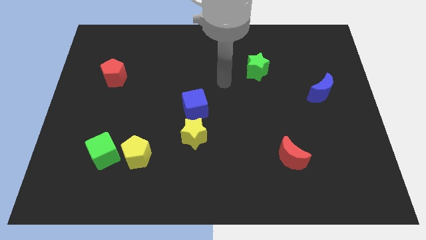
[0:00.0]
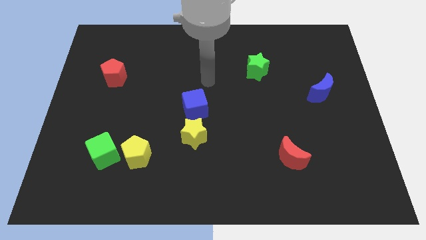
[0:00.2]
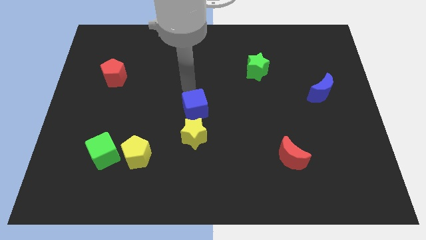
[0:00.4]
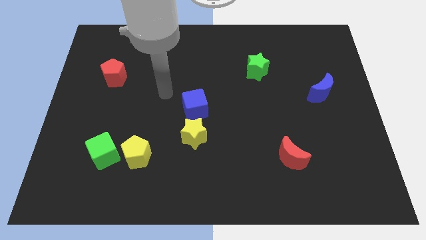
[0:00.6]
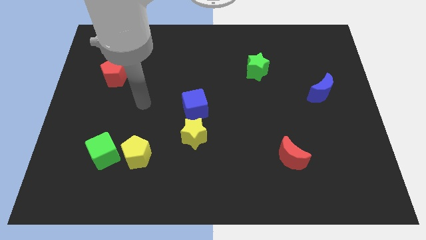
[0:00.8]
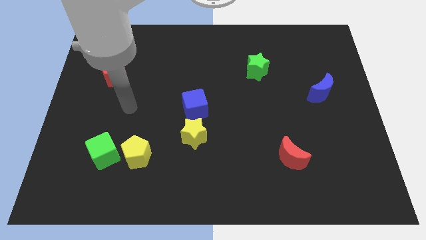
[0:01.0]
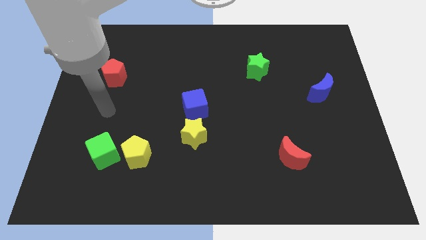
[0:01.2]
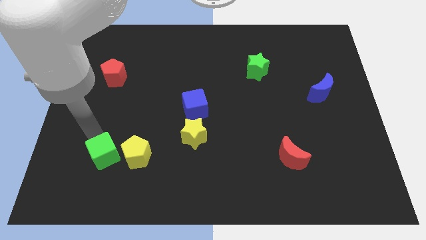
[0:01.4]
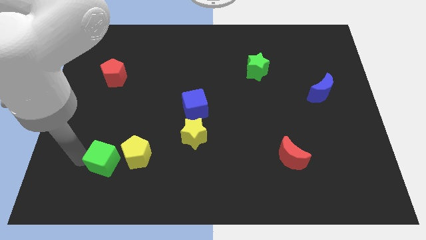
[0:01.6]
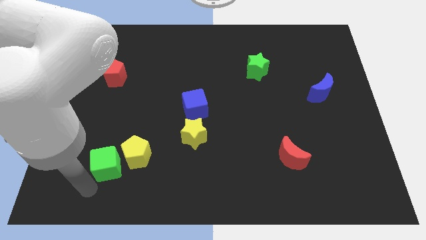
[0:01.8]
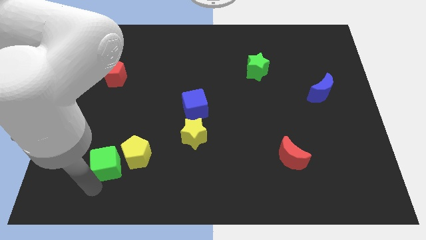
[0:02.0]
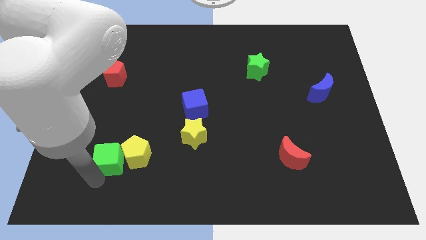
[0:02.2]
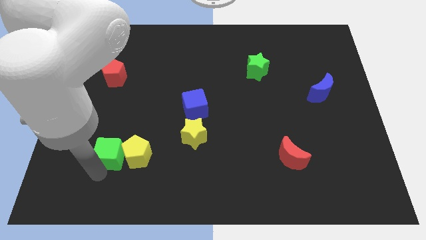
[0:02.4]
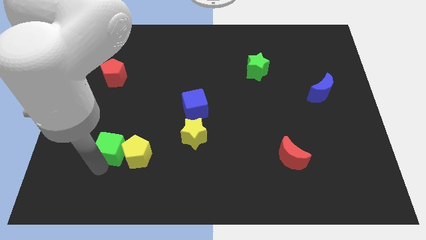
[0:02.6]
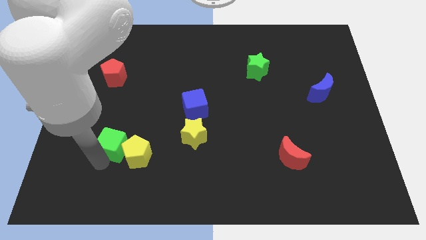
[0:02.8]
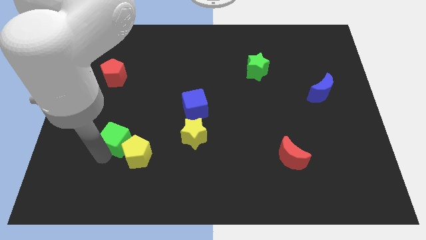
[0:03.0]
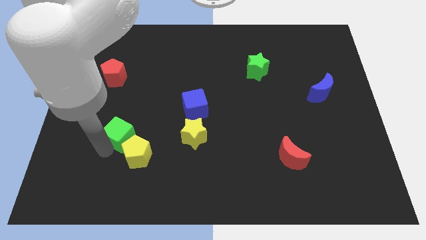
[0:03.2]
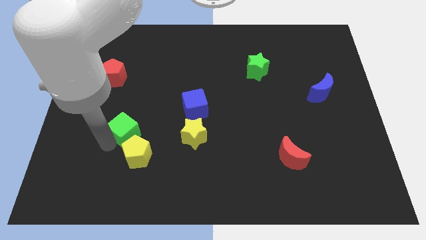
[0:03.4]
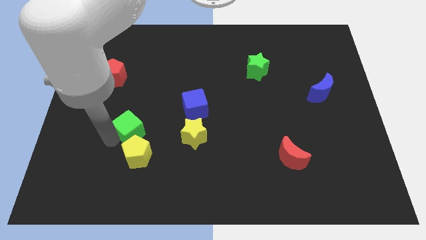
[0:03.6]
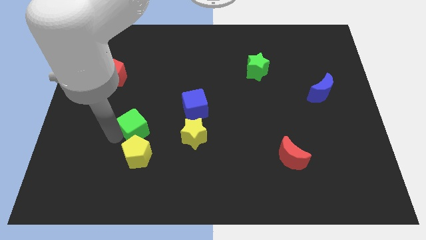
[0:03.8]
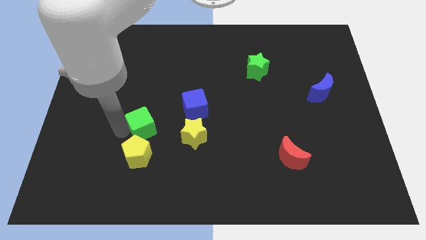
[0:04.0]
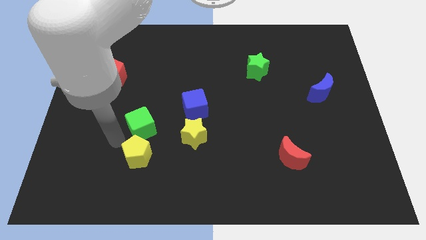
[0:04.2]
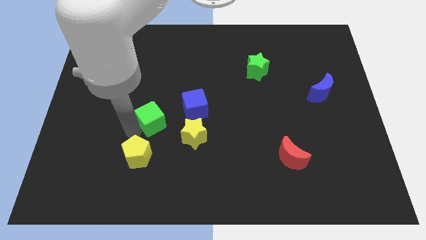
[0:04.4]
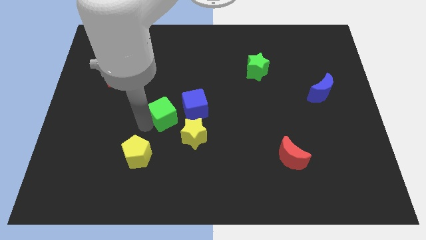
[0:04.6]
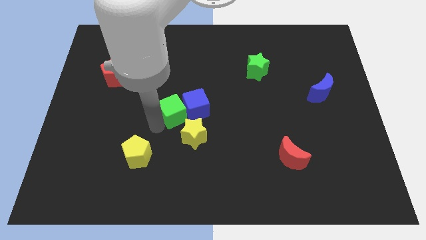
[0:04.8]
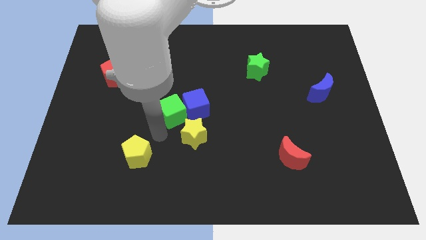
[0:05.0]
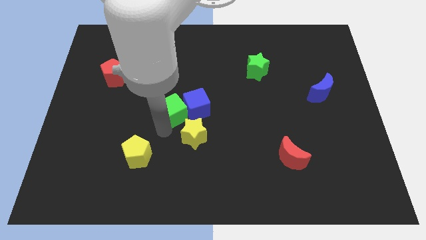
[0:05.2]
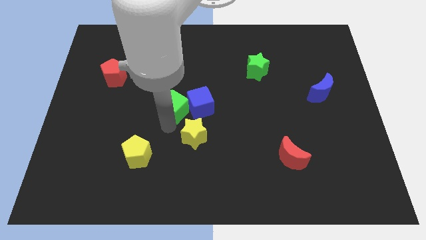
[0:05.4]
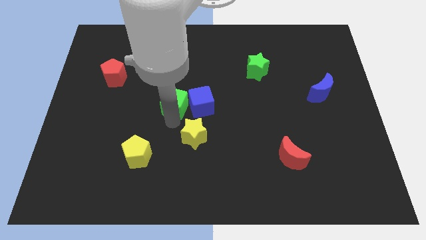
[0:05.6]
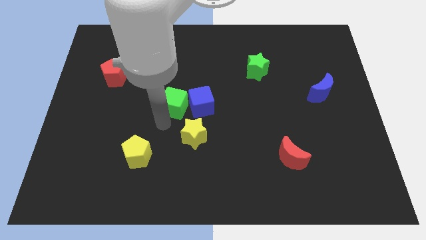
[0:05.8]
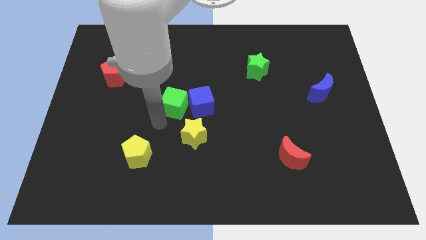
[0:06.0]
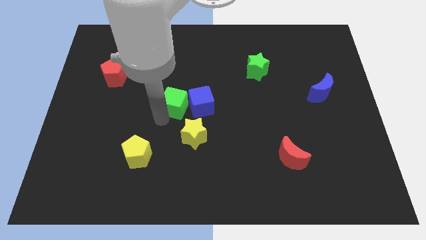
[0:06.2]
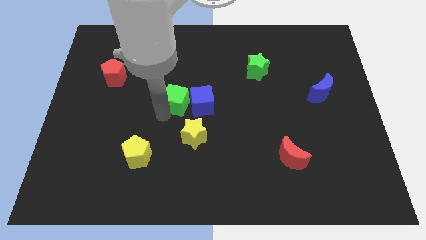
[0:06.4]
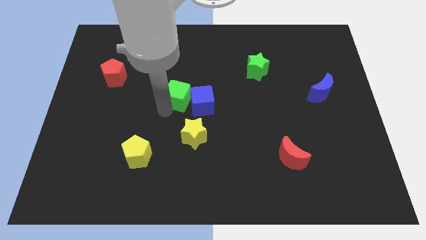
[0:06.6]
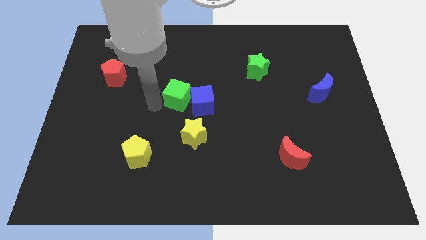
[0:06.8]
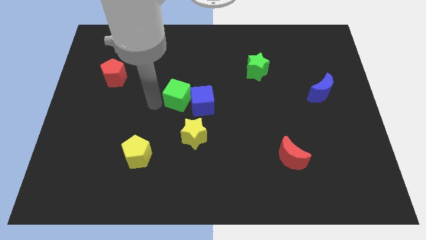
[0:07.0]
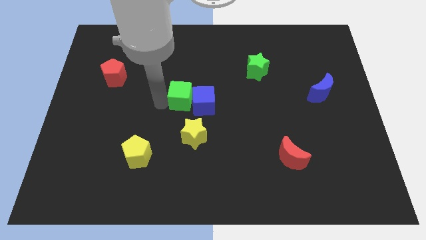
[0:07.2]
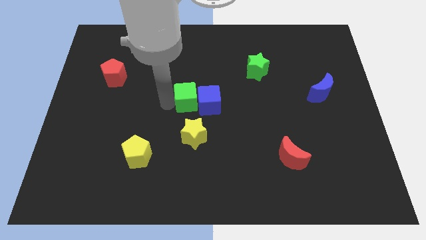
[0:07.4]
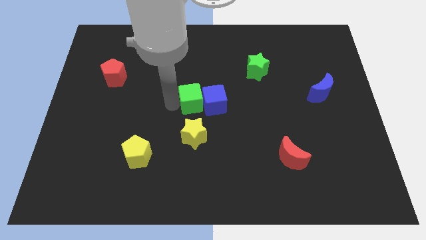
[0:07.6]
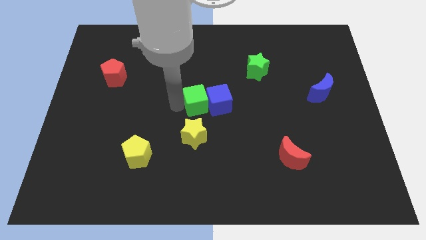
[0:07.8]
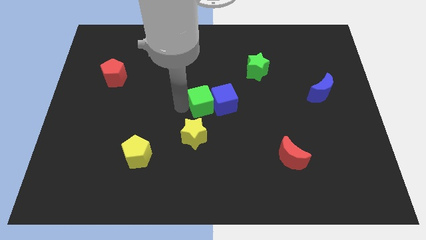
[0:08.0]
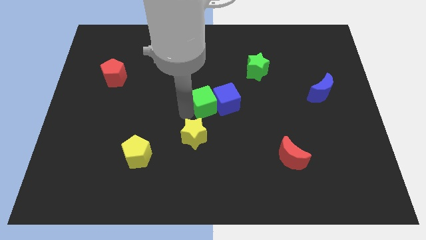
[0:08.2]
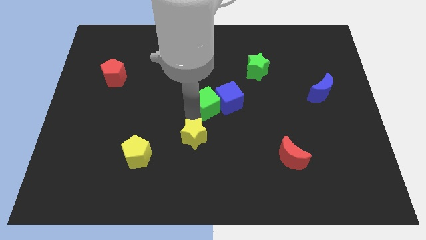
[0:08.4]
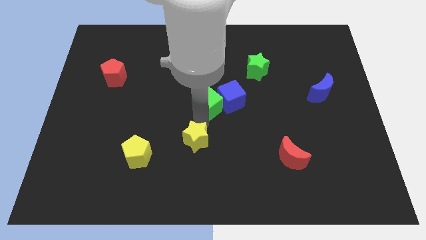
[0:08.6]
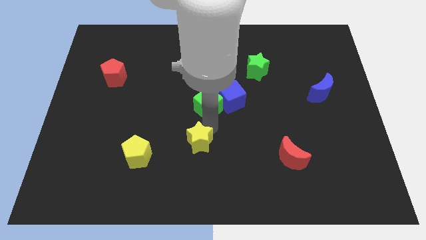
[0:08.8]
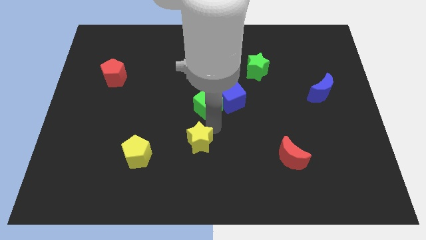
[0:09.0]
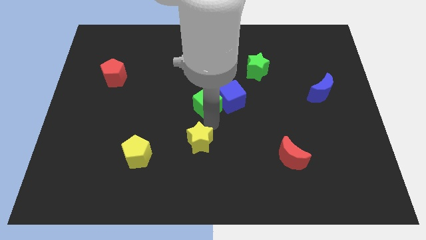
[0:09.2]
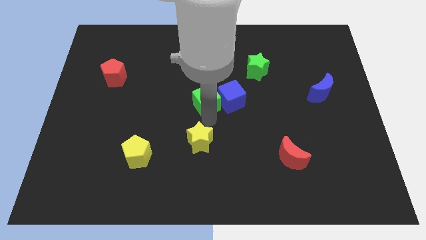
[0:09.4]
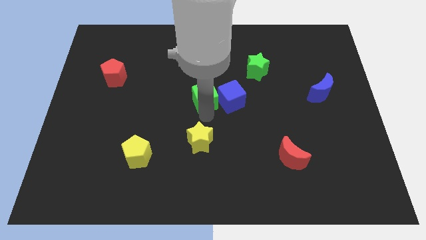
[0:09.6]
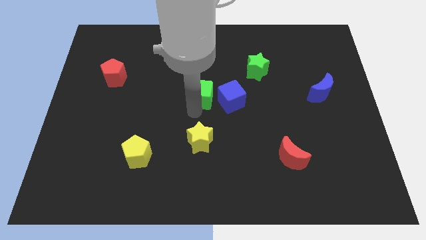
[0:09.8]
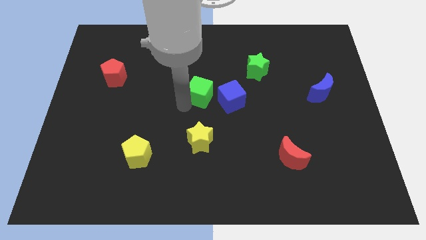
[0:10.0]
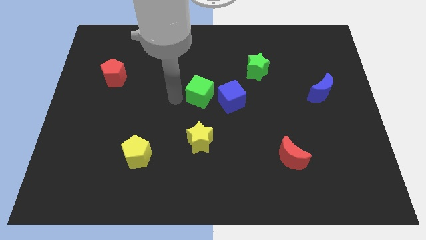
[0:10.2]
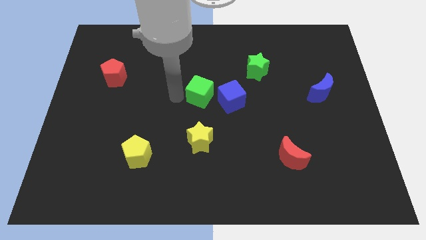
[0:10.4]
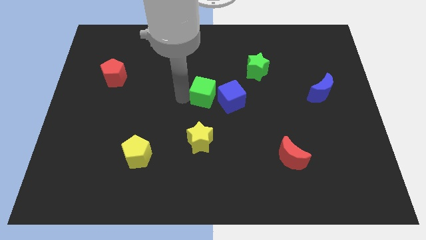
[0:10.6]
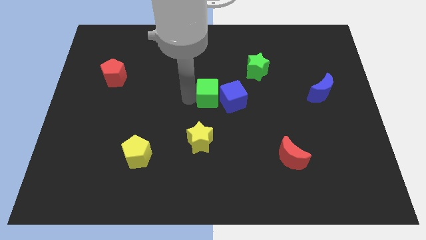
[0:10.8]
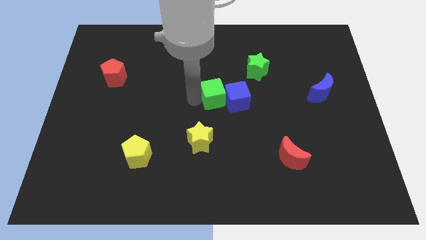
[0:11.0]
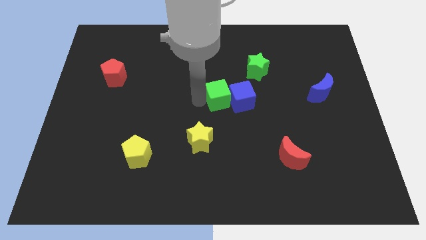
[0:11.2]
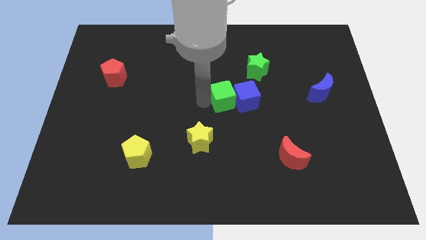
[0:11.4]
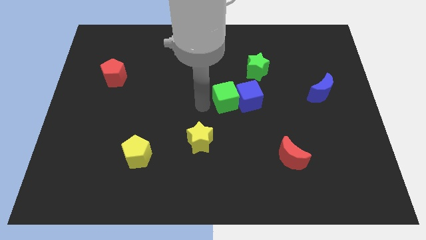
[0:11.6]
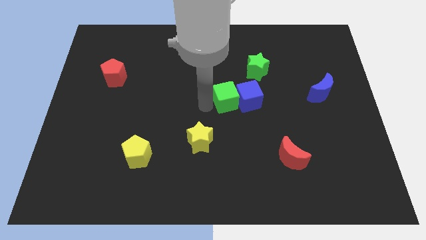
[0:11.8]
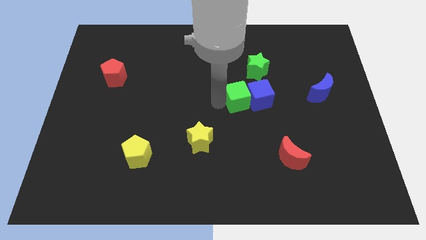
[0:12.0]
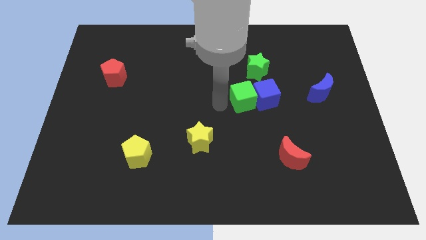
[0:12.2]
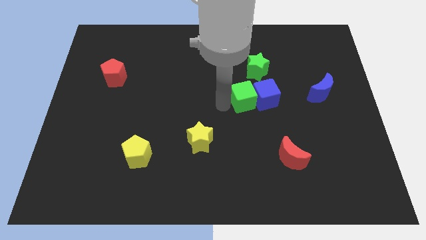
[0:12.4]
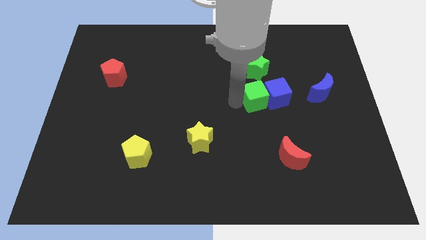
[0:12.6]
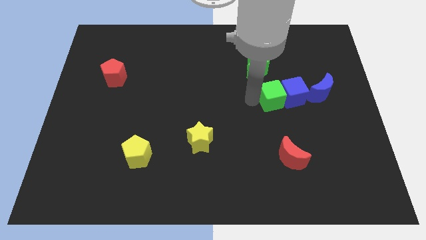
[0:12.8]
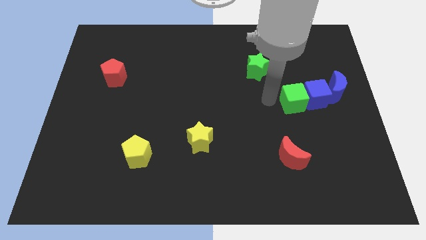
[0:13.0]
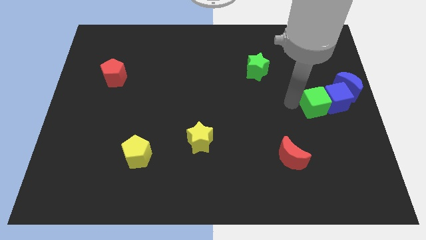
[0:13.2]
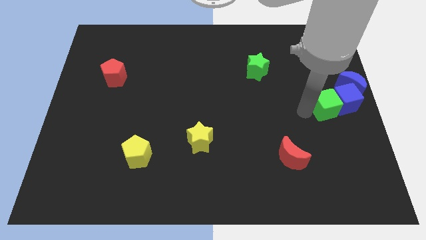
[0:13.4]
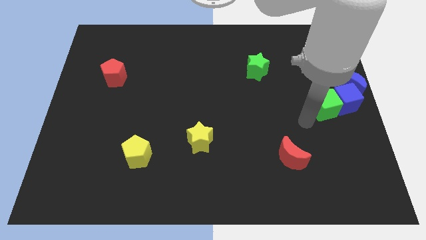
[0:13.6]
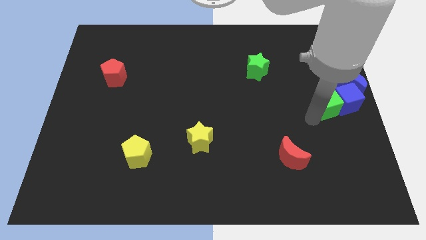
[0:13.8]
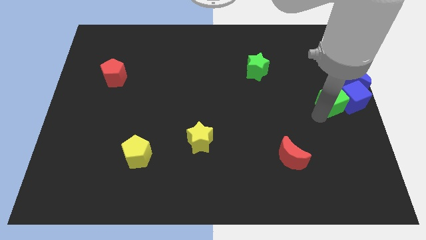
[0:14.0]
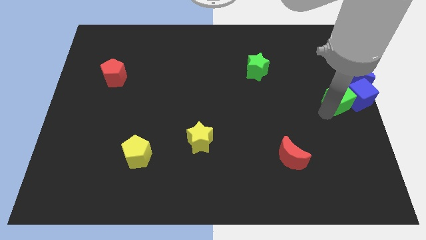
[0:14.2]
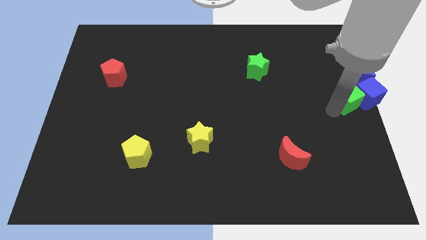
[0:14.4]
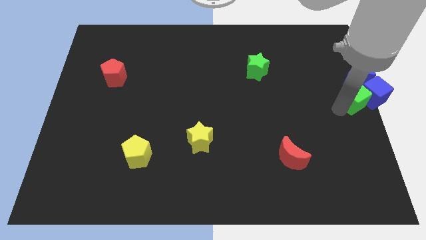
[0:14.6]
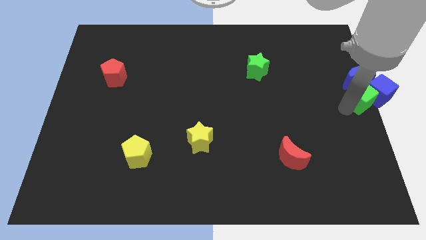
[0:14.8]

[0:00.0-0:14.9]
put the green cube next to the blue moon
